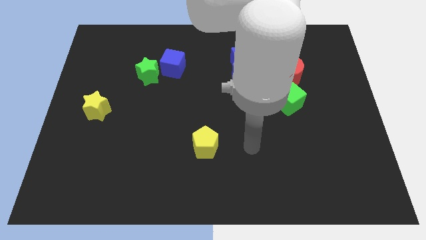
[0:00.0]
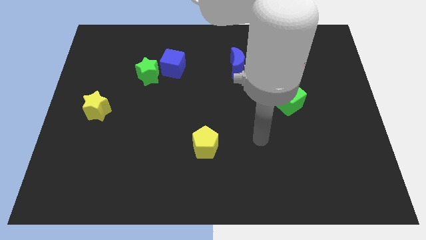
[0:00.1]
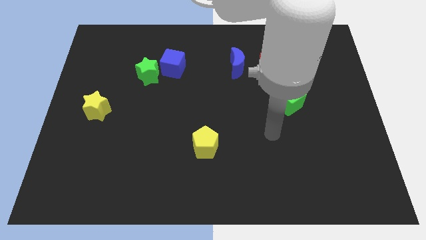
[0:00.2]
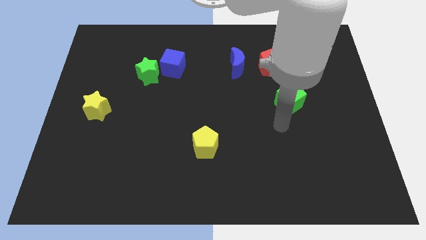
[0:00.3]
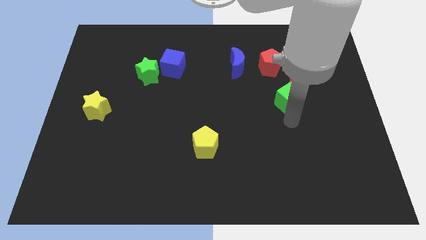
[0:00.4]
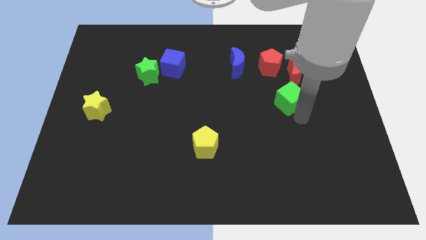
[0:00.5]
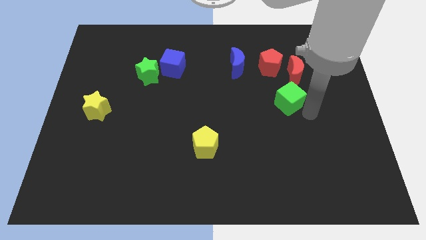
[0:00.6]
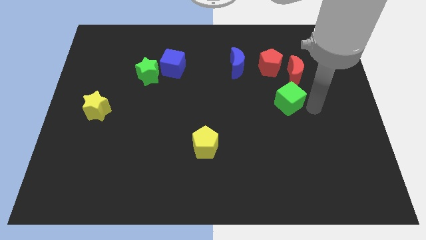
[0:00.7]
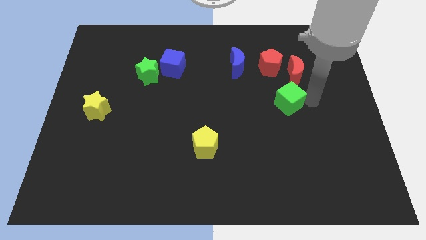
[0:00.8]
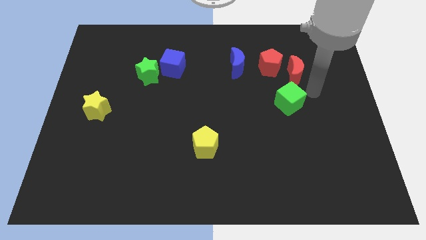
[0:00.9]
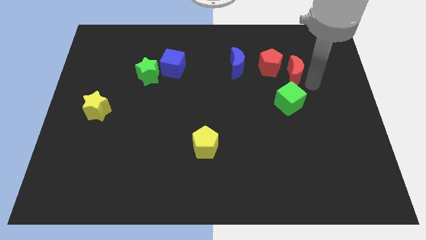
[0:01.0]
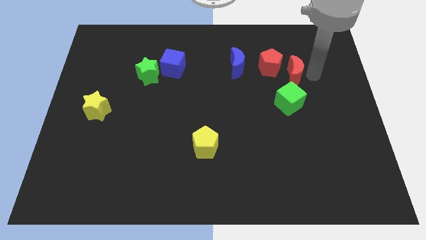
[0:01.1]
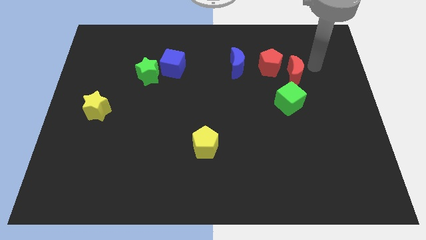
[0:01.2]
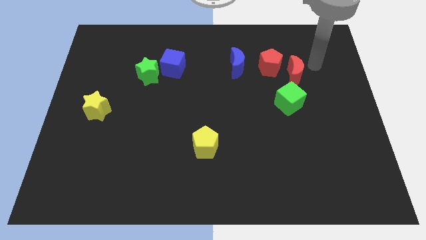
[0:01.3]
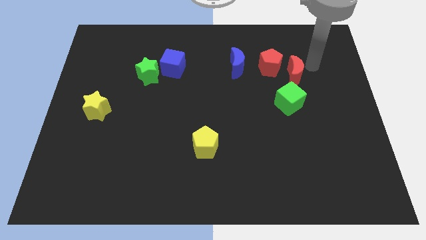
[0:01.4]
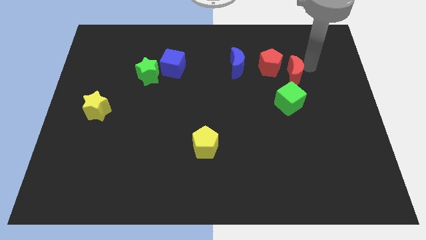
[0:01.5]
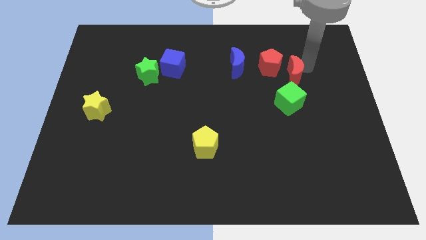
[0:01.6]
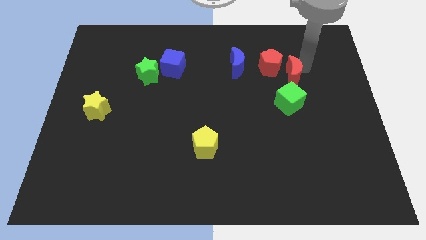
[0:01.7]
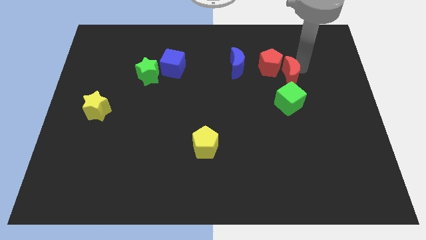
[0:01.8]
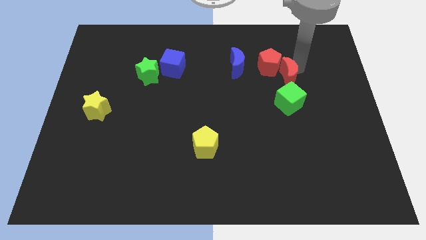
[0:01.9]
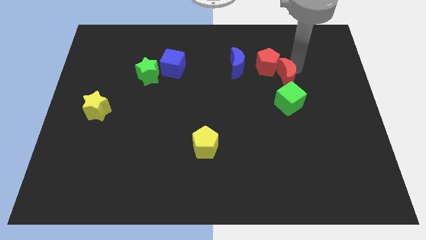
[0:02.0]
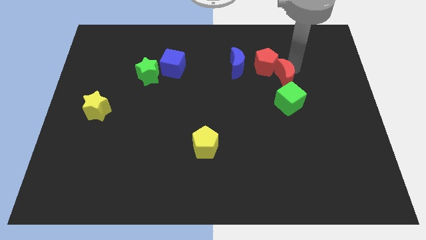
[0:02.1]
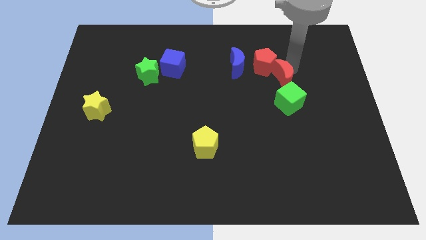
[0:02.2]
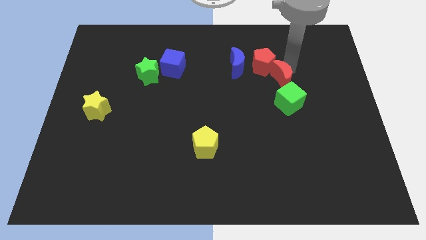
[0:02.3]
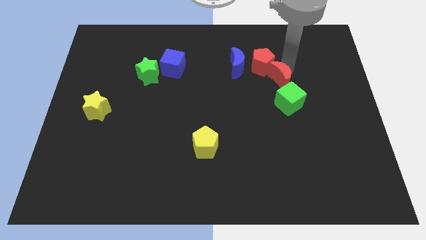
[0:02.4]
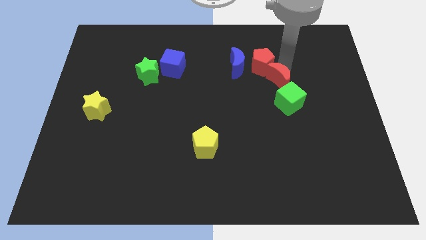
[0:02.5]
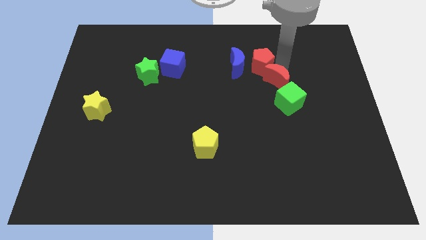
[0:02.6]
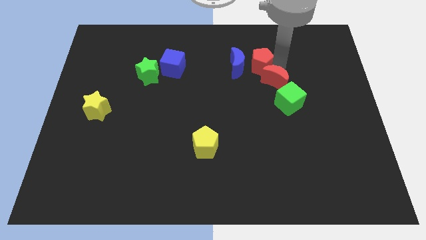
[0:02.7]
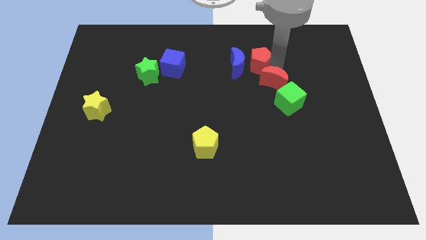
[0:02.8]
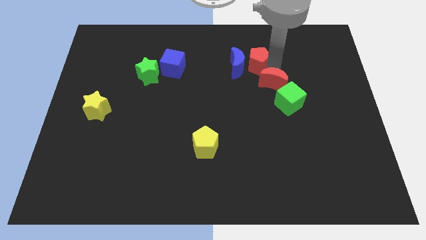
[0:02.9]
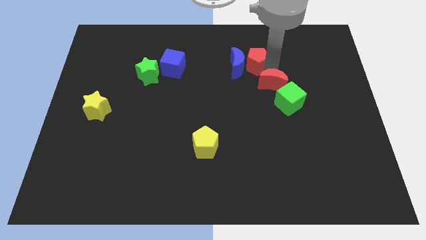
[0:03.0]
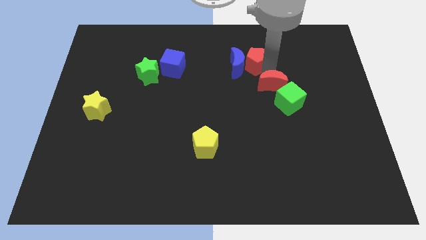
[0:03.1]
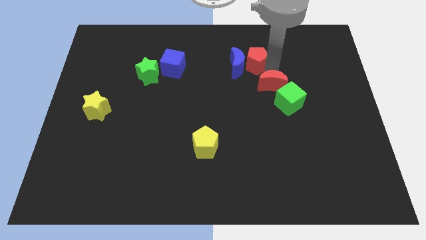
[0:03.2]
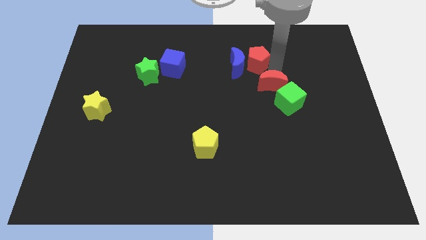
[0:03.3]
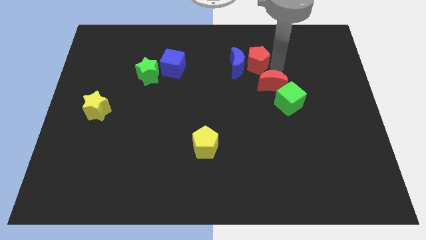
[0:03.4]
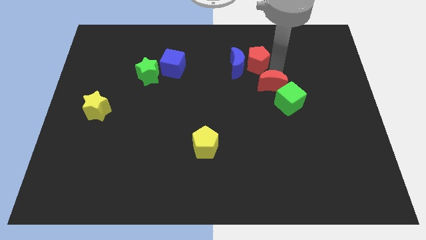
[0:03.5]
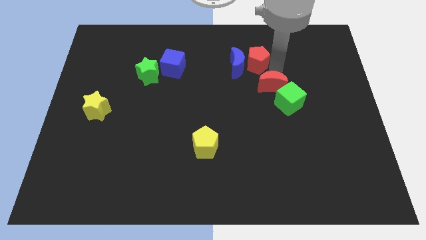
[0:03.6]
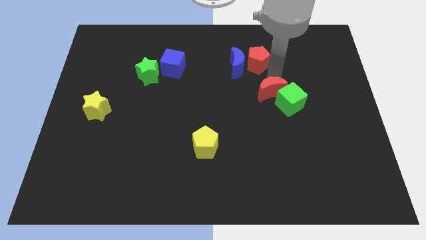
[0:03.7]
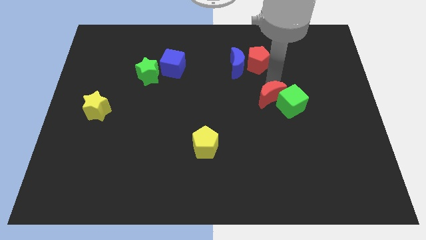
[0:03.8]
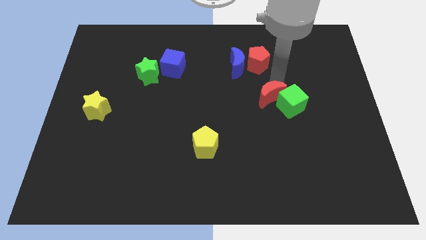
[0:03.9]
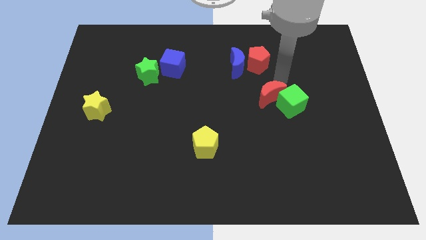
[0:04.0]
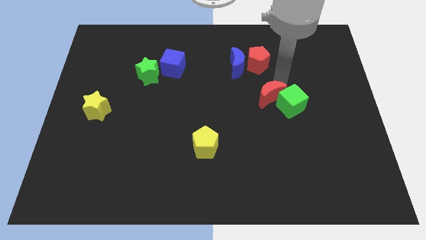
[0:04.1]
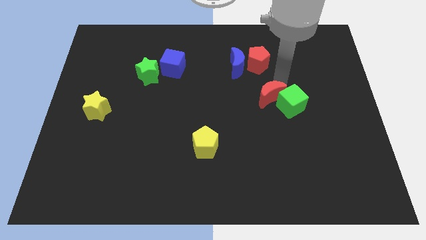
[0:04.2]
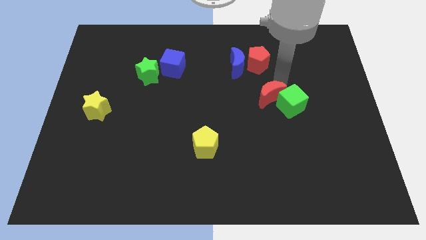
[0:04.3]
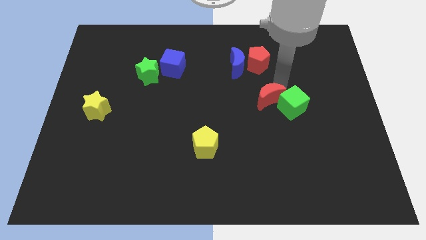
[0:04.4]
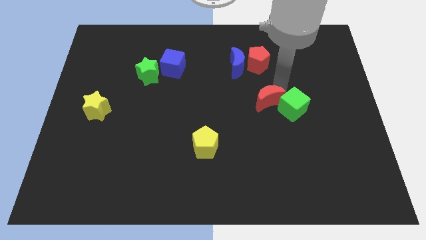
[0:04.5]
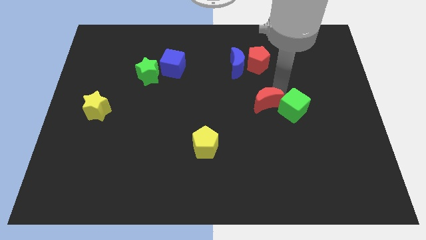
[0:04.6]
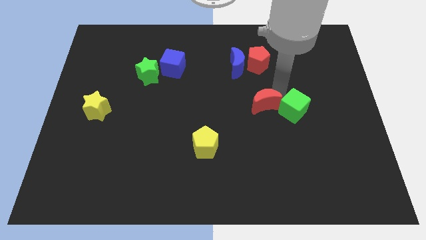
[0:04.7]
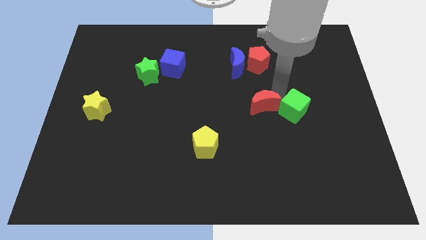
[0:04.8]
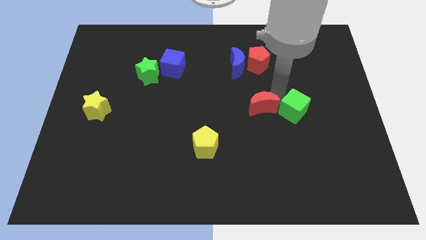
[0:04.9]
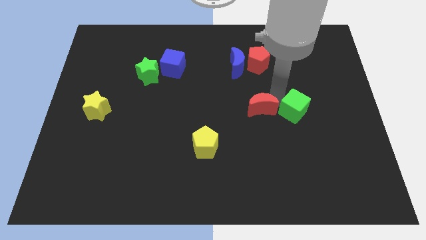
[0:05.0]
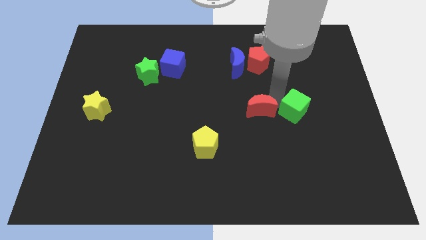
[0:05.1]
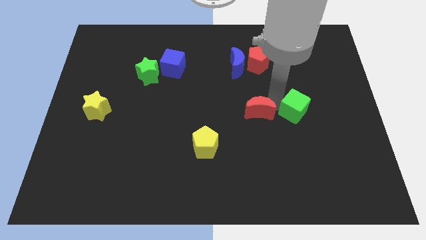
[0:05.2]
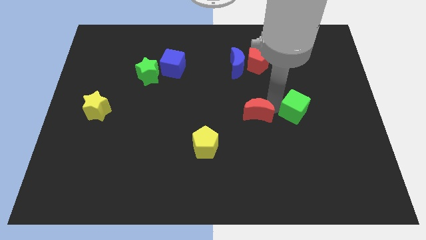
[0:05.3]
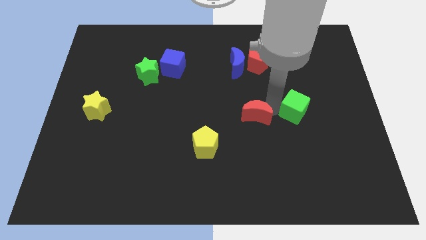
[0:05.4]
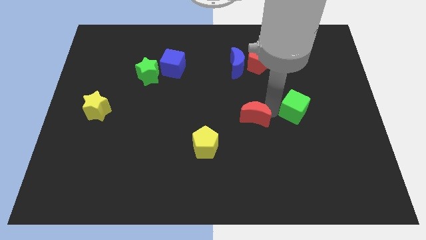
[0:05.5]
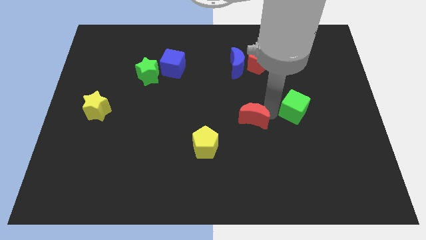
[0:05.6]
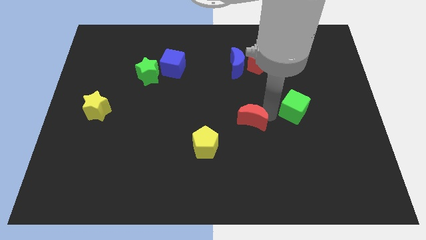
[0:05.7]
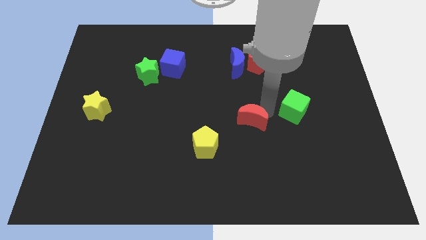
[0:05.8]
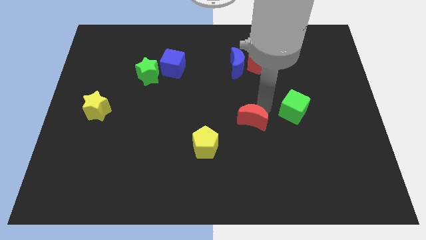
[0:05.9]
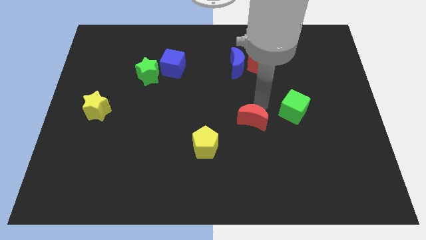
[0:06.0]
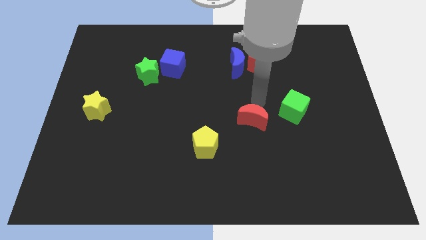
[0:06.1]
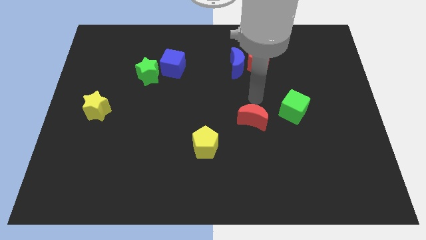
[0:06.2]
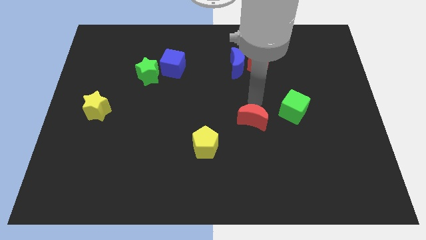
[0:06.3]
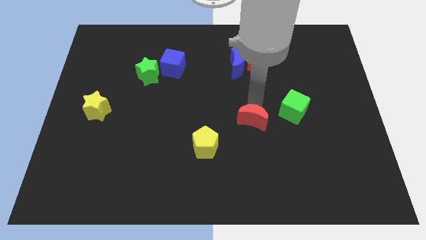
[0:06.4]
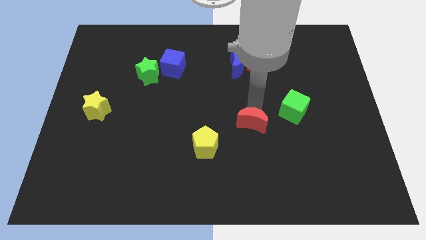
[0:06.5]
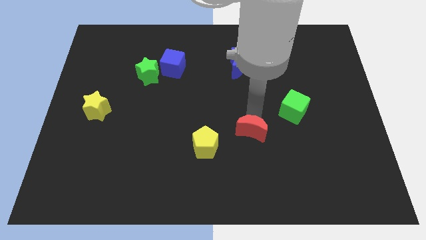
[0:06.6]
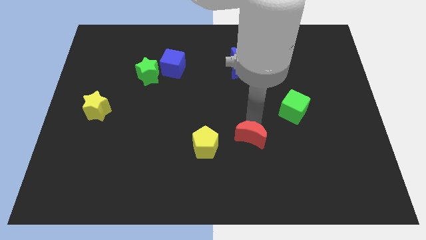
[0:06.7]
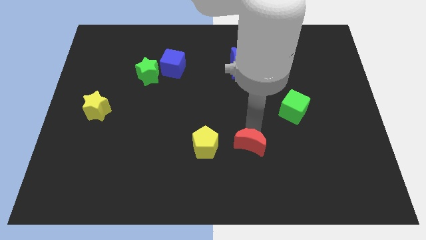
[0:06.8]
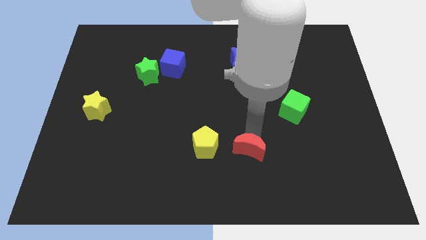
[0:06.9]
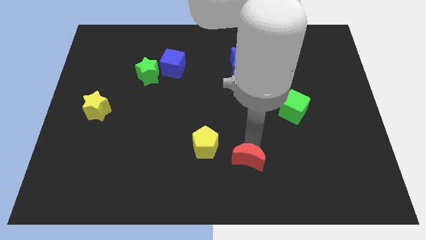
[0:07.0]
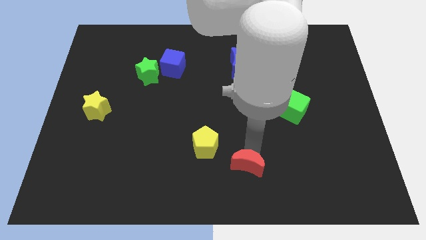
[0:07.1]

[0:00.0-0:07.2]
slide the red moon to the bottom
